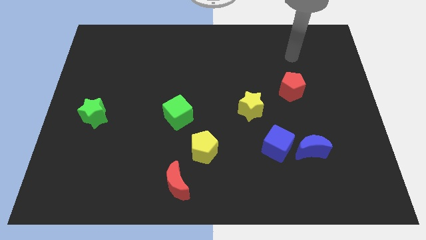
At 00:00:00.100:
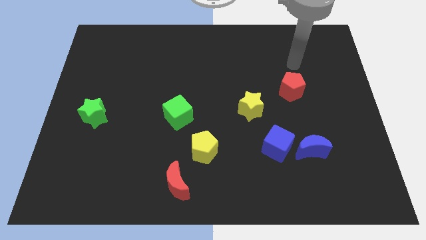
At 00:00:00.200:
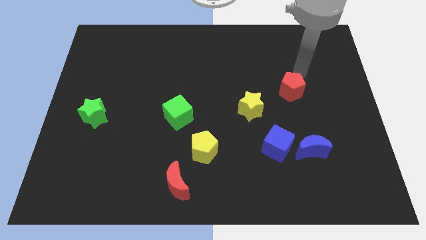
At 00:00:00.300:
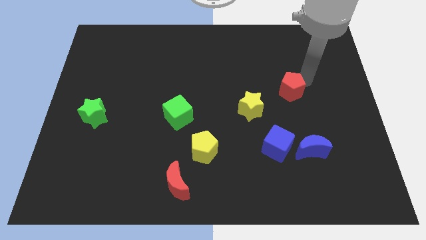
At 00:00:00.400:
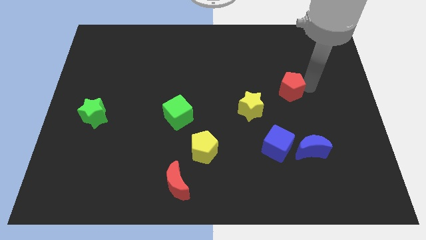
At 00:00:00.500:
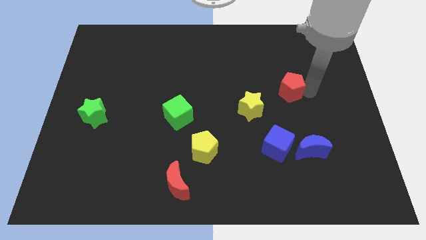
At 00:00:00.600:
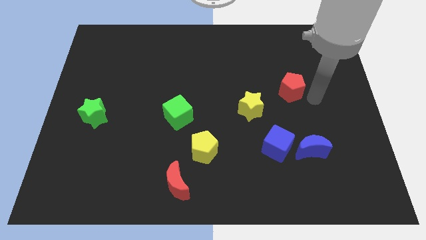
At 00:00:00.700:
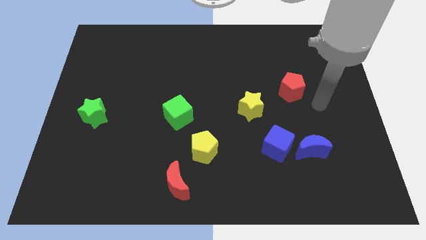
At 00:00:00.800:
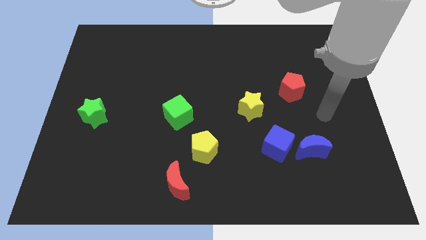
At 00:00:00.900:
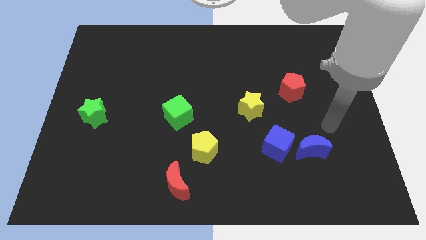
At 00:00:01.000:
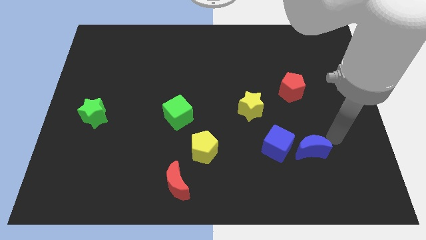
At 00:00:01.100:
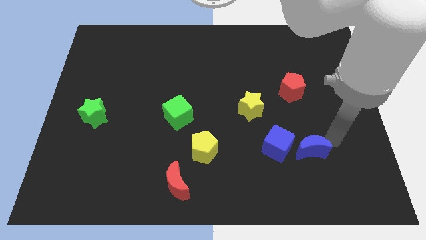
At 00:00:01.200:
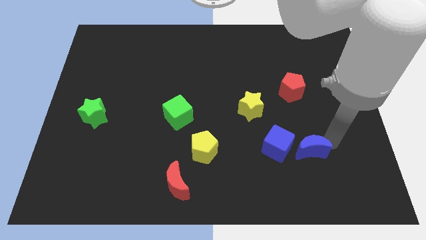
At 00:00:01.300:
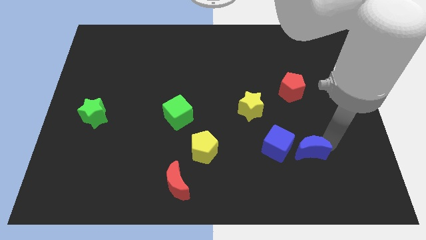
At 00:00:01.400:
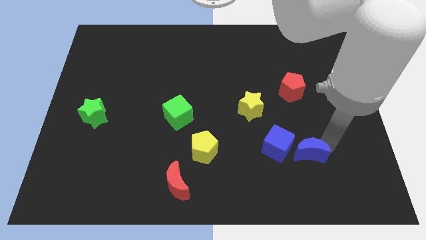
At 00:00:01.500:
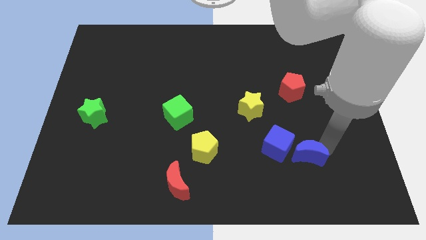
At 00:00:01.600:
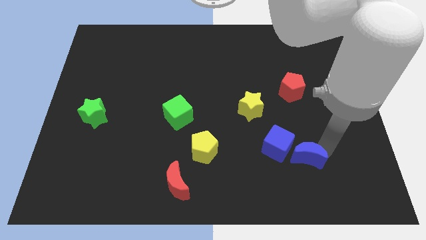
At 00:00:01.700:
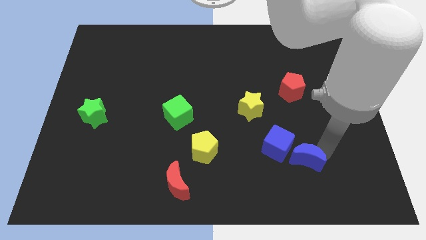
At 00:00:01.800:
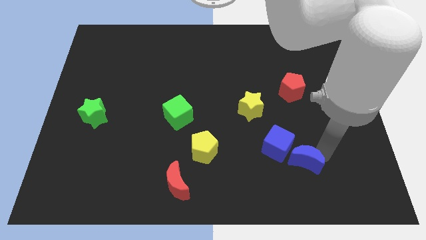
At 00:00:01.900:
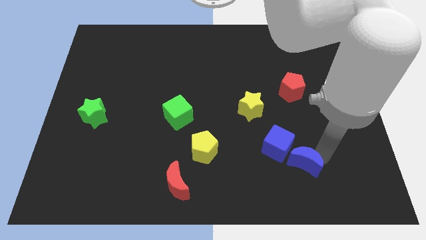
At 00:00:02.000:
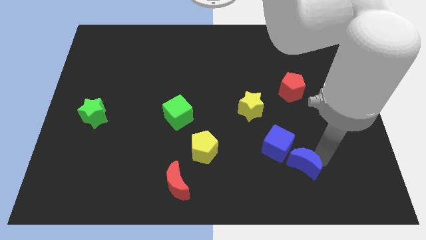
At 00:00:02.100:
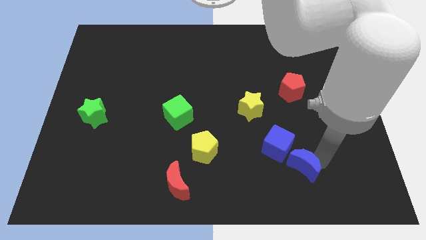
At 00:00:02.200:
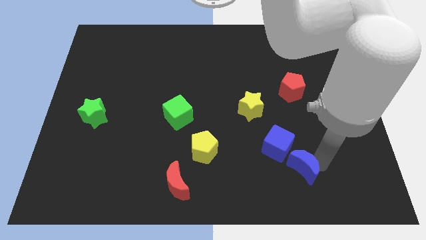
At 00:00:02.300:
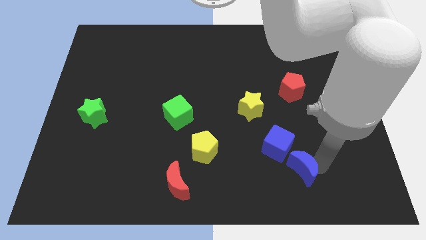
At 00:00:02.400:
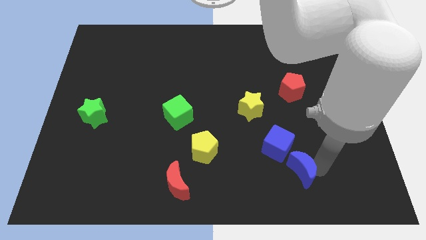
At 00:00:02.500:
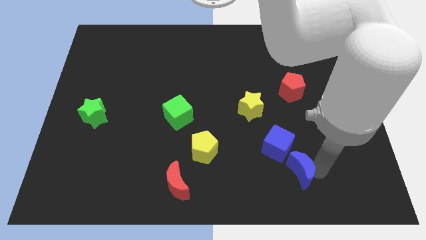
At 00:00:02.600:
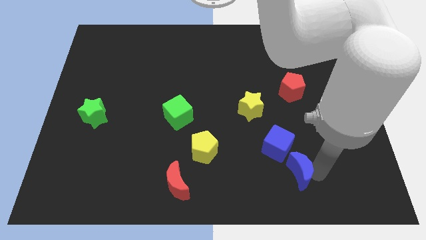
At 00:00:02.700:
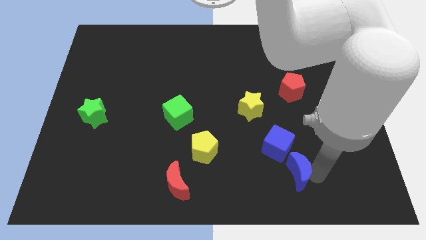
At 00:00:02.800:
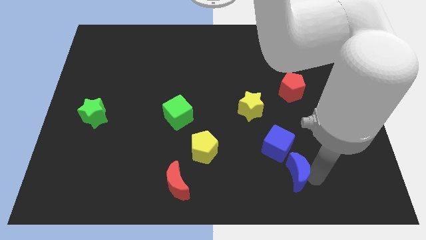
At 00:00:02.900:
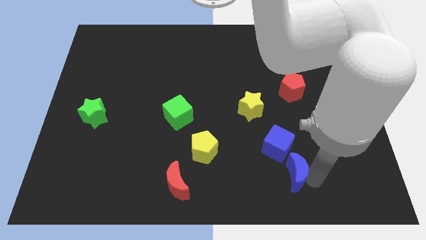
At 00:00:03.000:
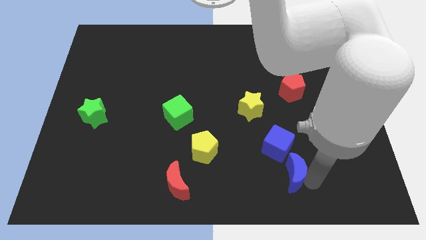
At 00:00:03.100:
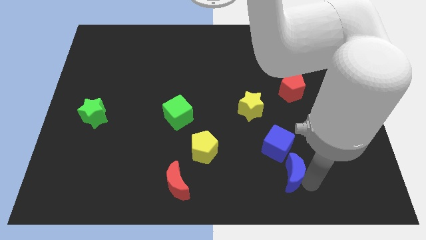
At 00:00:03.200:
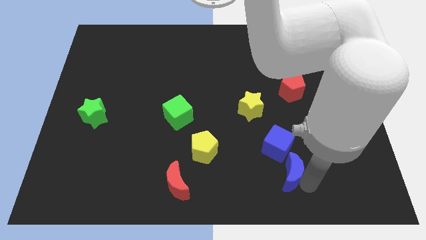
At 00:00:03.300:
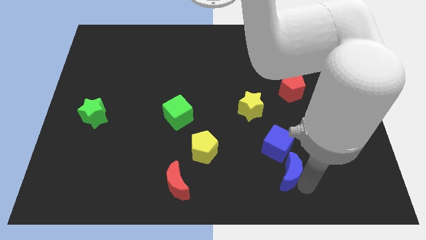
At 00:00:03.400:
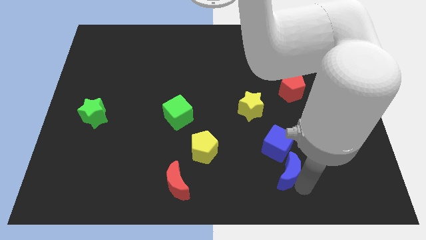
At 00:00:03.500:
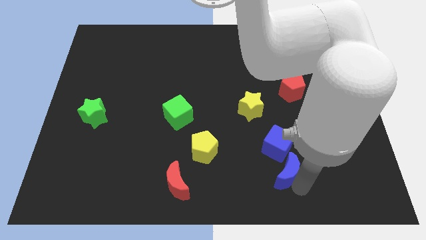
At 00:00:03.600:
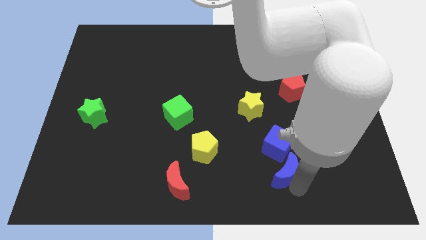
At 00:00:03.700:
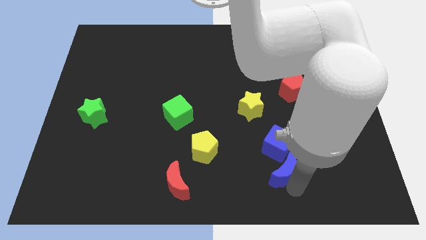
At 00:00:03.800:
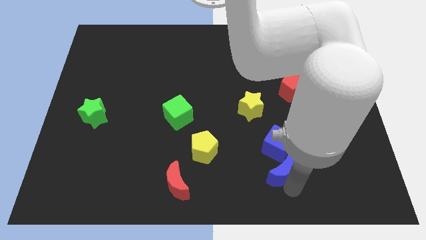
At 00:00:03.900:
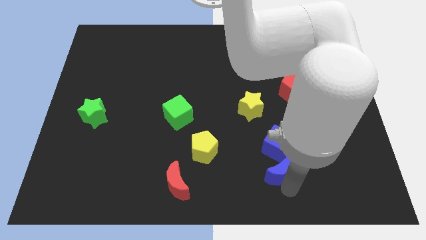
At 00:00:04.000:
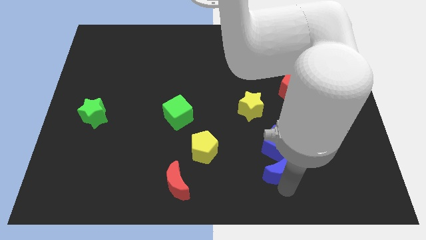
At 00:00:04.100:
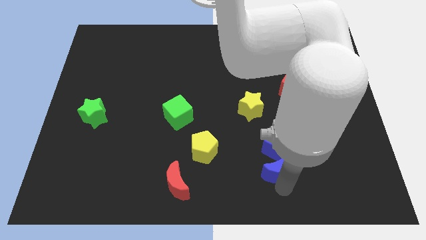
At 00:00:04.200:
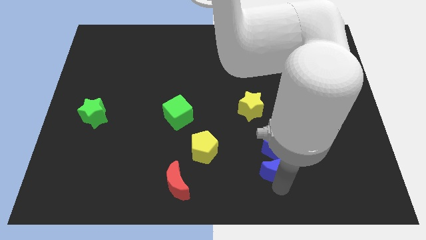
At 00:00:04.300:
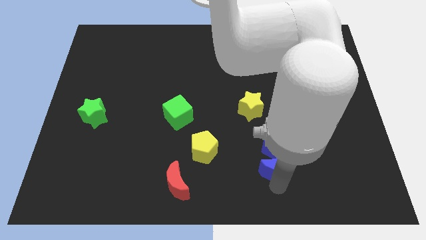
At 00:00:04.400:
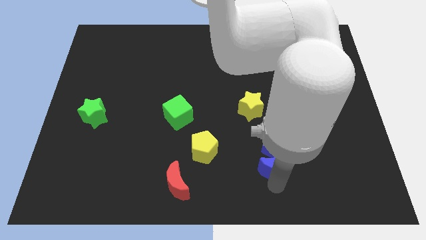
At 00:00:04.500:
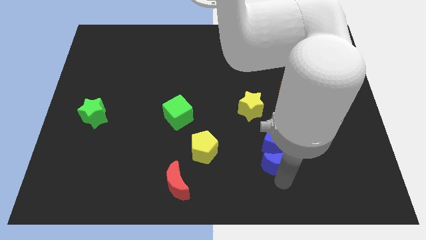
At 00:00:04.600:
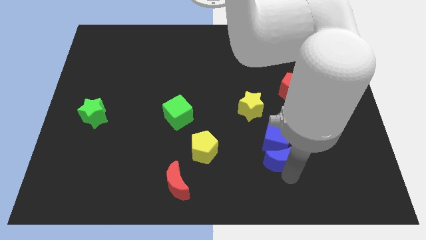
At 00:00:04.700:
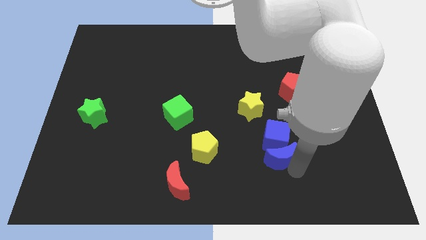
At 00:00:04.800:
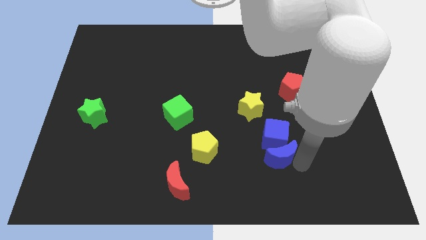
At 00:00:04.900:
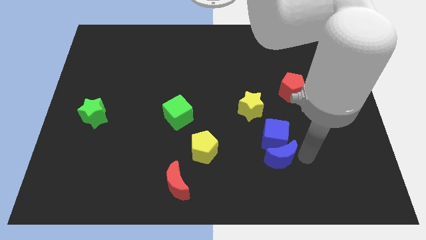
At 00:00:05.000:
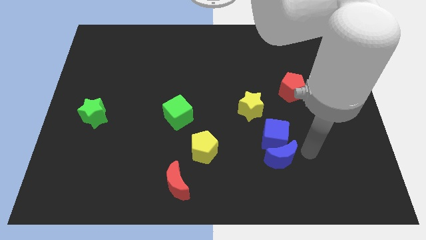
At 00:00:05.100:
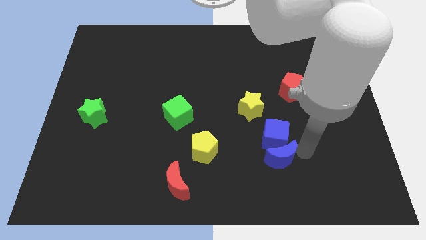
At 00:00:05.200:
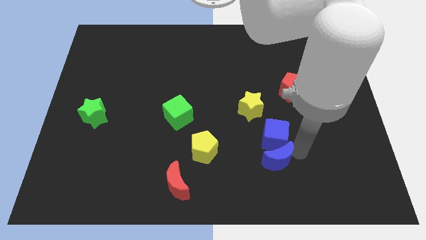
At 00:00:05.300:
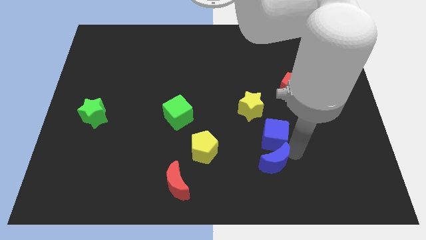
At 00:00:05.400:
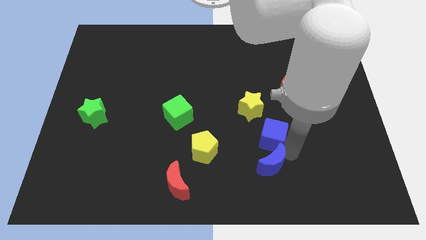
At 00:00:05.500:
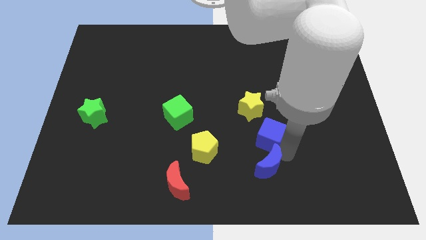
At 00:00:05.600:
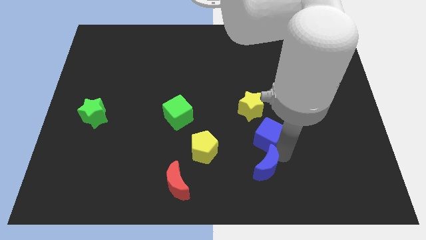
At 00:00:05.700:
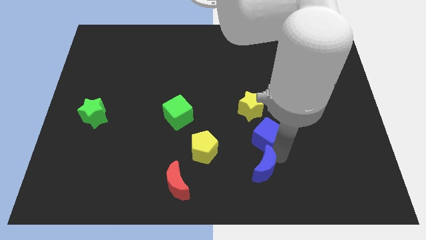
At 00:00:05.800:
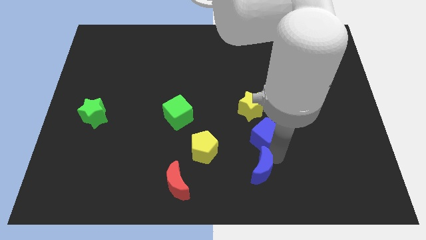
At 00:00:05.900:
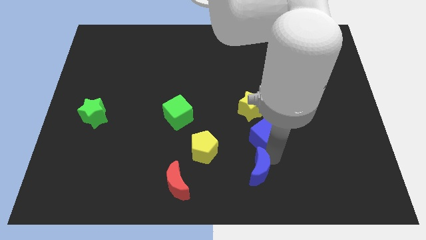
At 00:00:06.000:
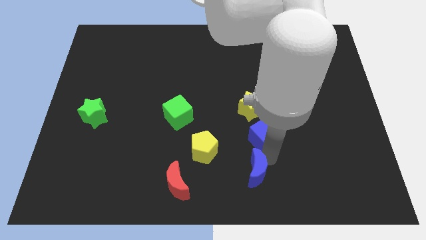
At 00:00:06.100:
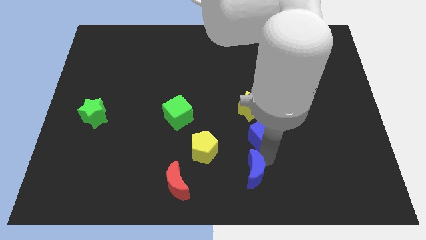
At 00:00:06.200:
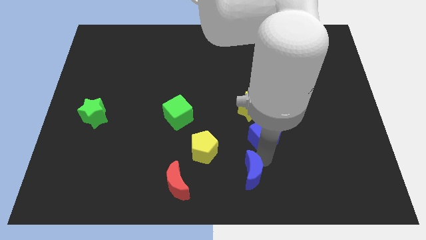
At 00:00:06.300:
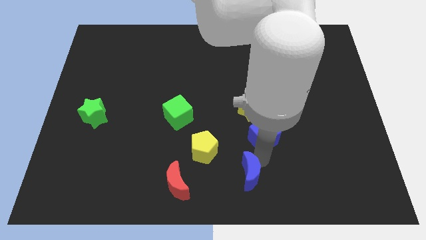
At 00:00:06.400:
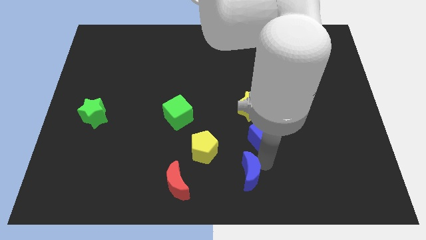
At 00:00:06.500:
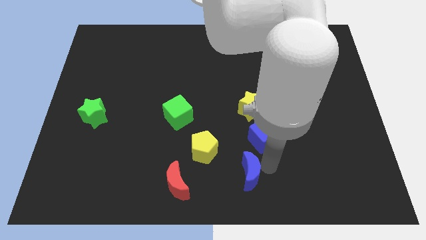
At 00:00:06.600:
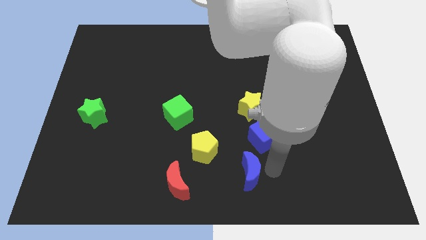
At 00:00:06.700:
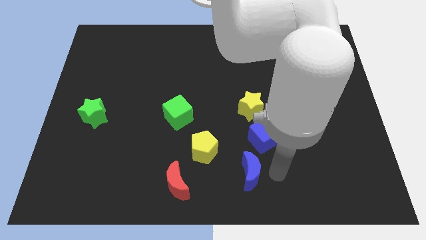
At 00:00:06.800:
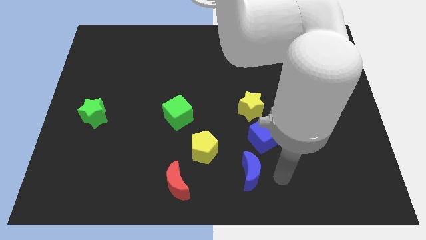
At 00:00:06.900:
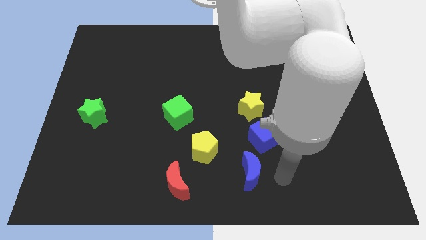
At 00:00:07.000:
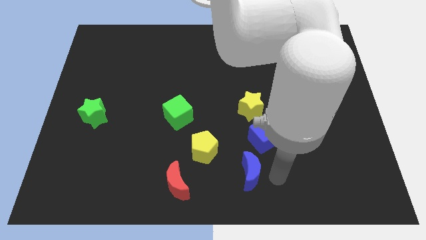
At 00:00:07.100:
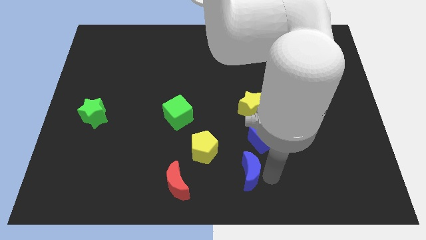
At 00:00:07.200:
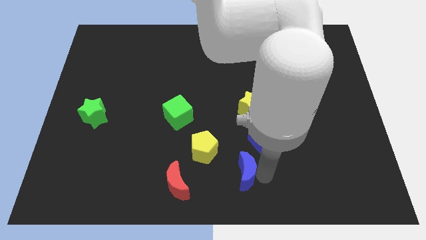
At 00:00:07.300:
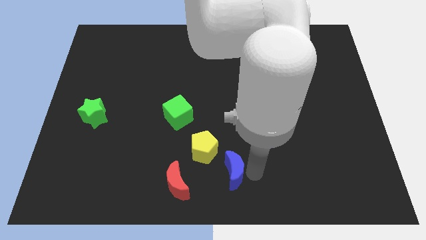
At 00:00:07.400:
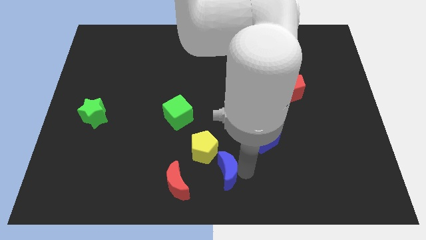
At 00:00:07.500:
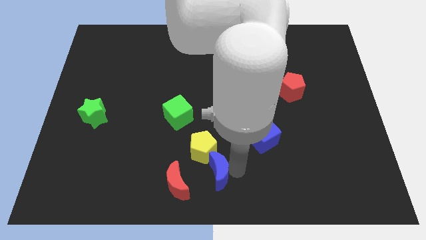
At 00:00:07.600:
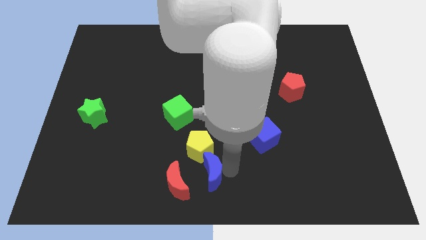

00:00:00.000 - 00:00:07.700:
slide the blue moon to the left
